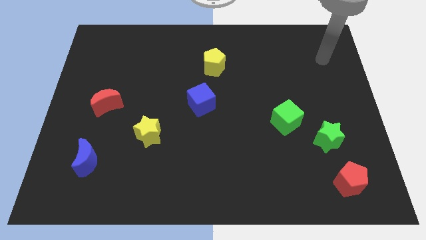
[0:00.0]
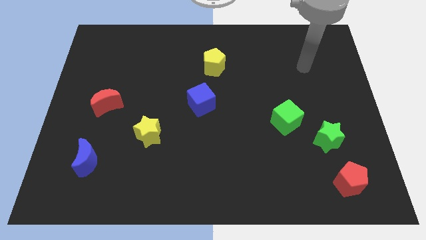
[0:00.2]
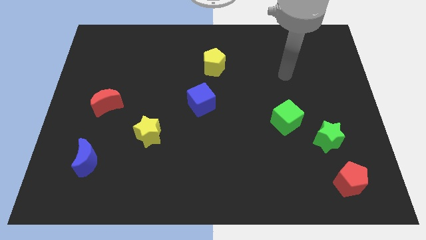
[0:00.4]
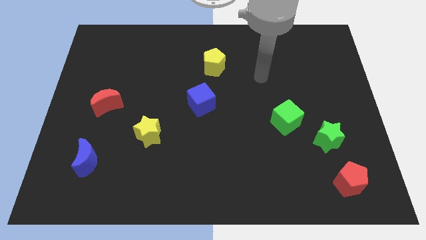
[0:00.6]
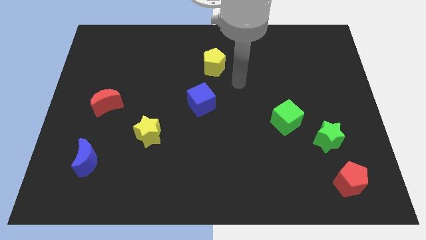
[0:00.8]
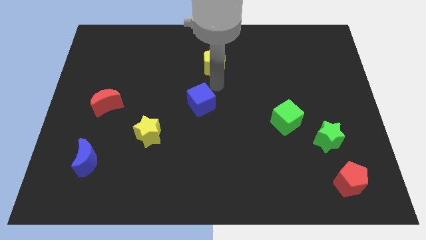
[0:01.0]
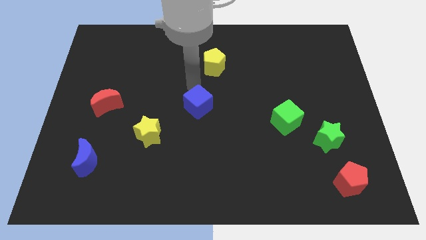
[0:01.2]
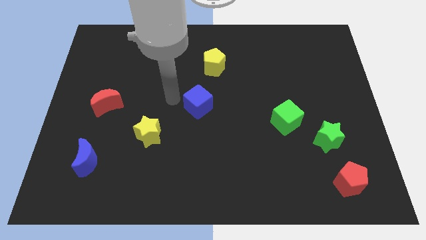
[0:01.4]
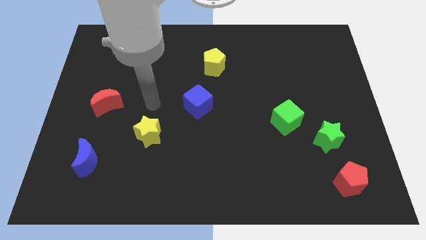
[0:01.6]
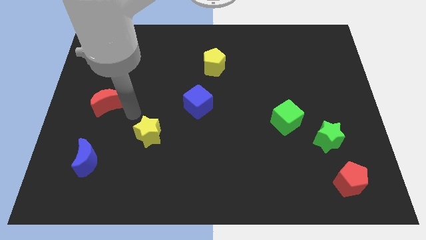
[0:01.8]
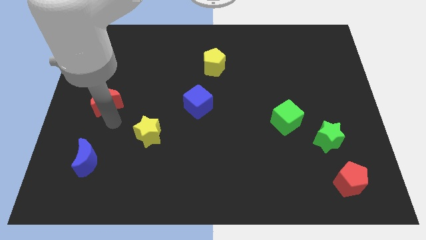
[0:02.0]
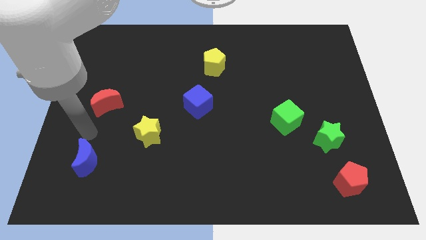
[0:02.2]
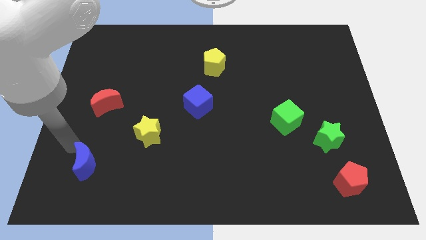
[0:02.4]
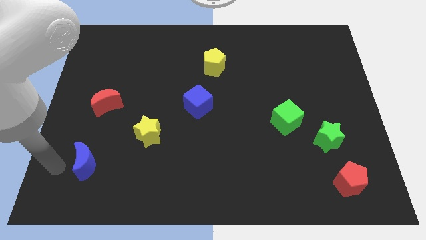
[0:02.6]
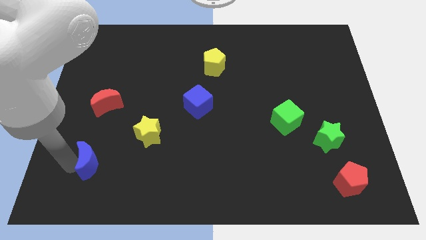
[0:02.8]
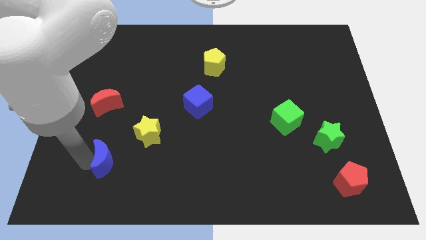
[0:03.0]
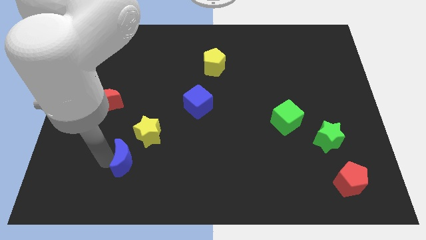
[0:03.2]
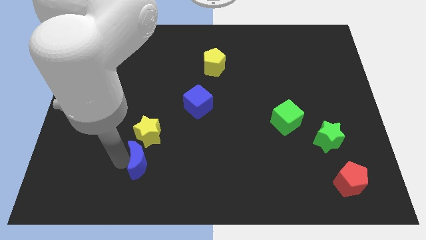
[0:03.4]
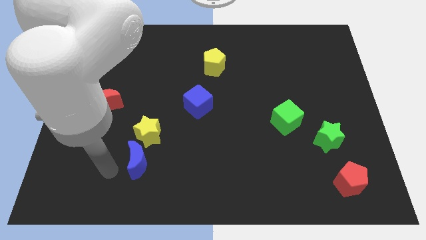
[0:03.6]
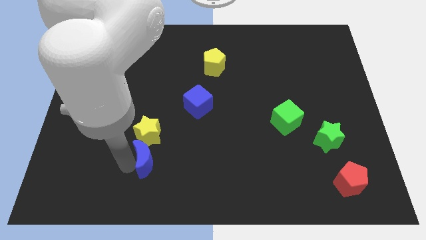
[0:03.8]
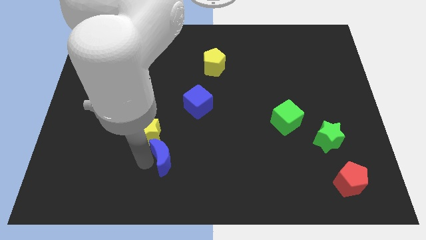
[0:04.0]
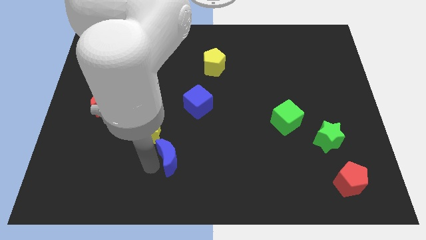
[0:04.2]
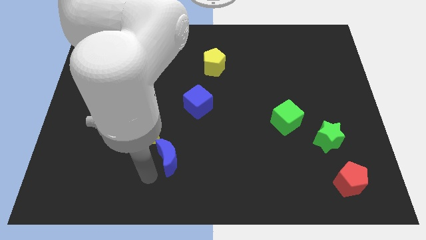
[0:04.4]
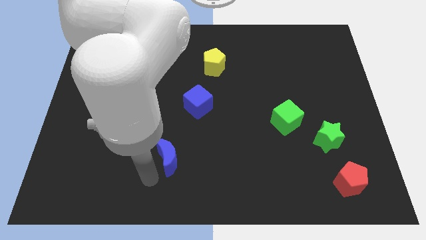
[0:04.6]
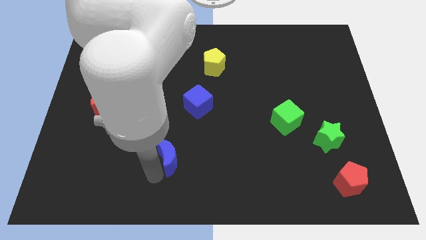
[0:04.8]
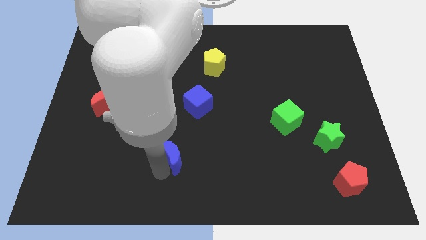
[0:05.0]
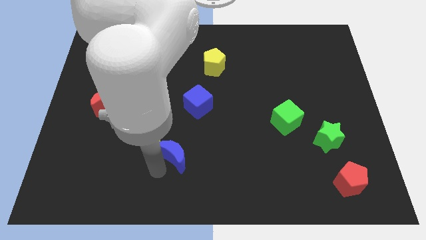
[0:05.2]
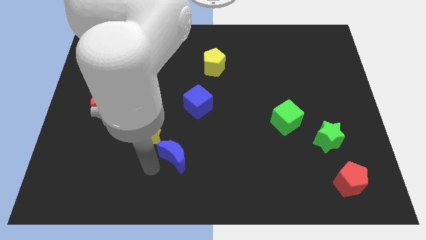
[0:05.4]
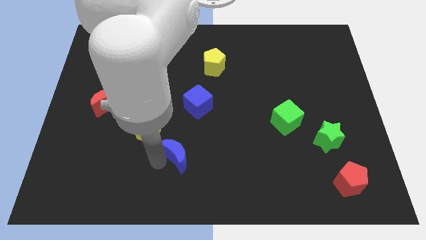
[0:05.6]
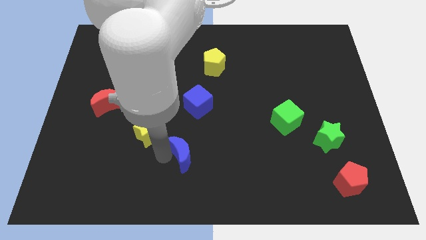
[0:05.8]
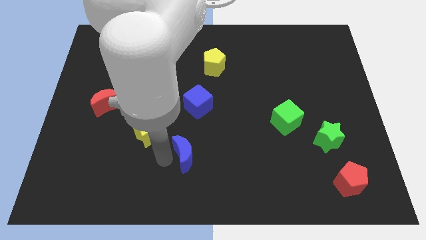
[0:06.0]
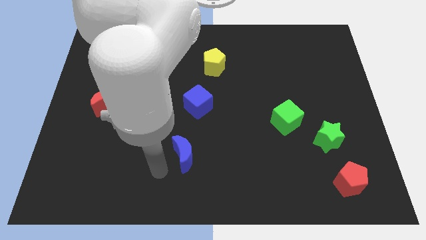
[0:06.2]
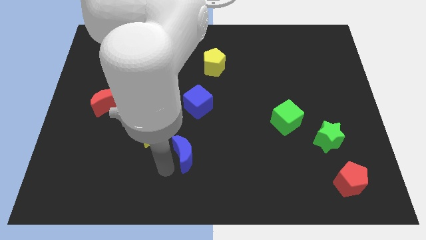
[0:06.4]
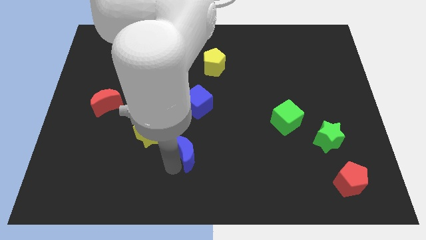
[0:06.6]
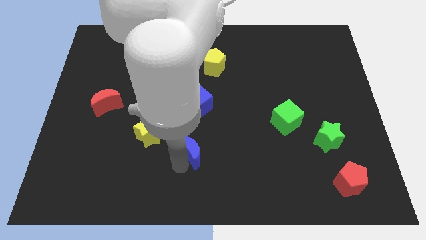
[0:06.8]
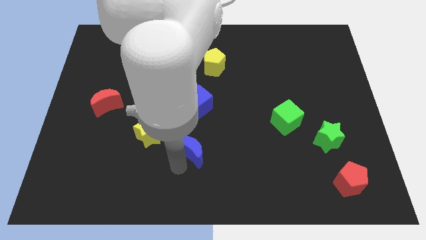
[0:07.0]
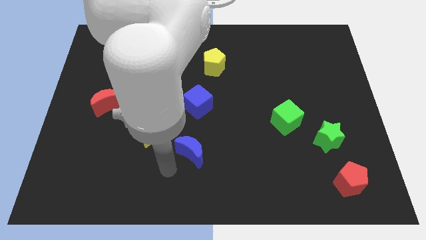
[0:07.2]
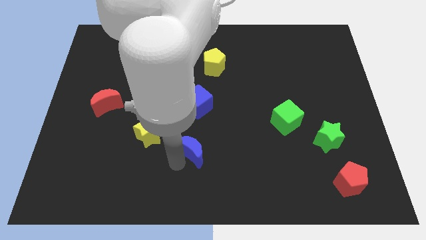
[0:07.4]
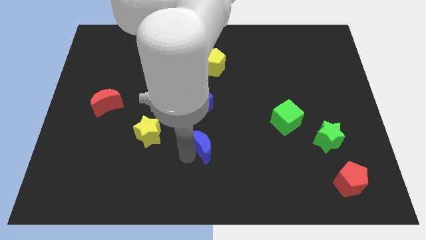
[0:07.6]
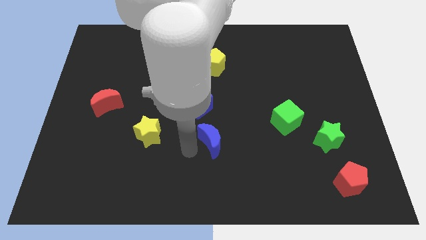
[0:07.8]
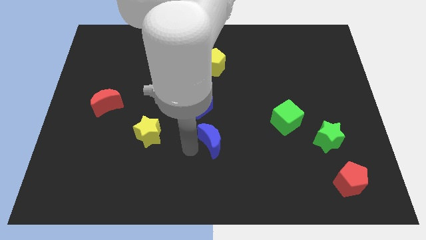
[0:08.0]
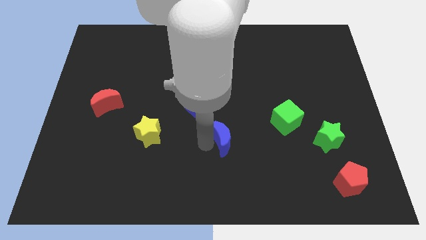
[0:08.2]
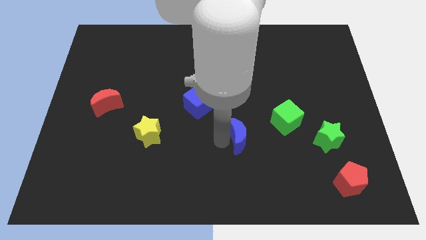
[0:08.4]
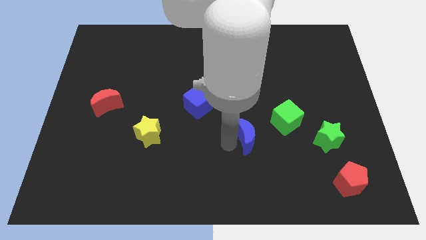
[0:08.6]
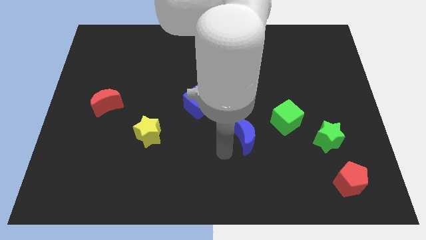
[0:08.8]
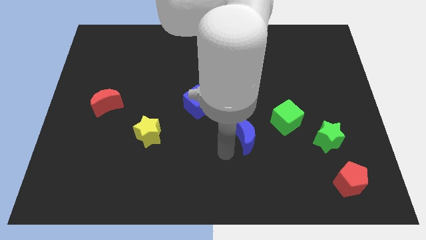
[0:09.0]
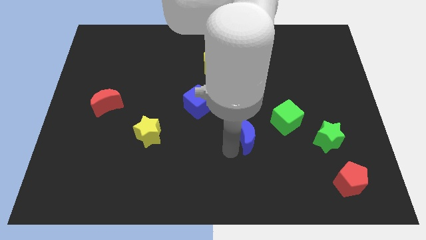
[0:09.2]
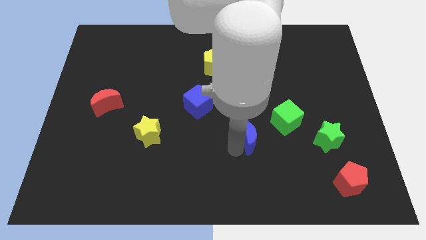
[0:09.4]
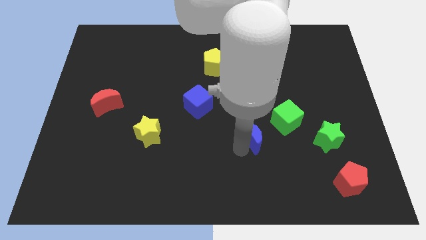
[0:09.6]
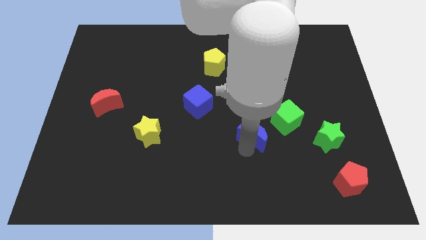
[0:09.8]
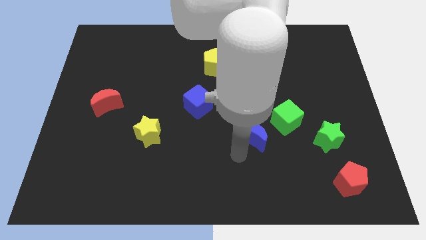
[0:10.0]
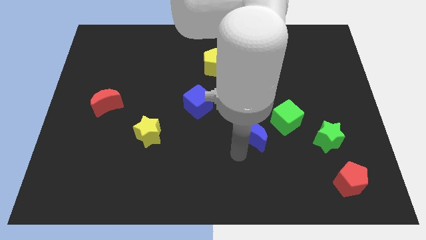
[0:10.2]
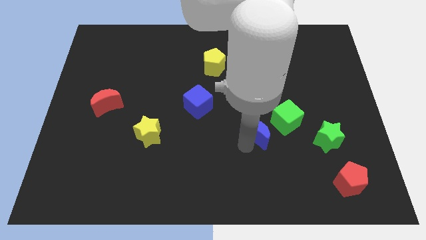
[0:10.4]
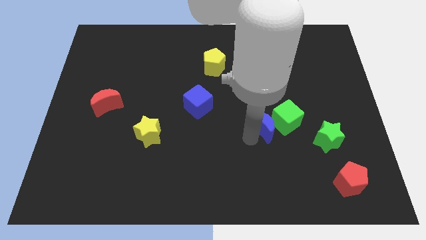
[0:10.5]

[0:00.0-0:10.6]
slide the blue moon towards the green cube

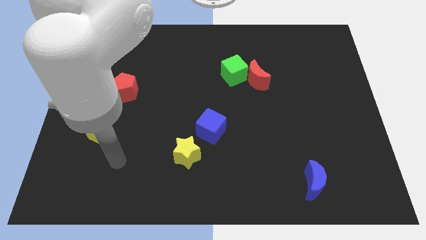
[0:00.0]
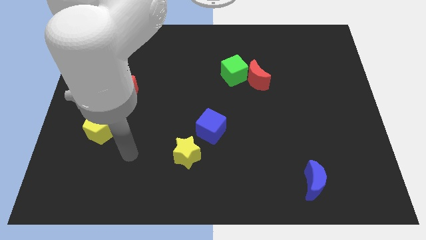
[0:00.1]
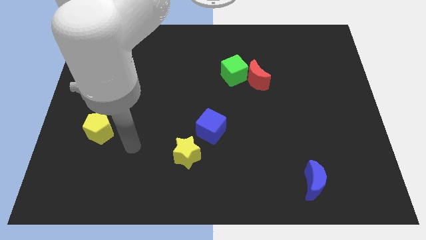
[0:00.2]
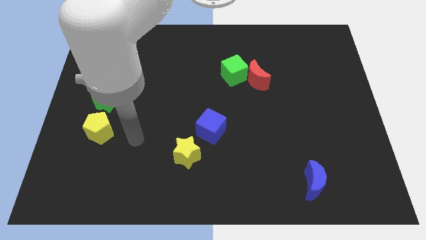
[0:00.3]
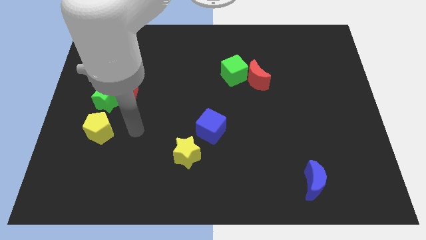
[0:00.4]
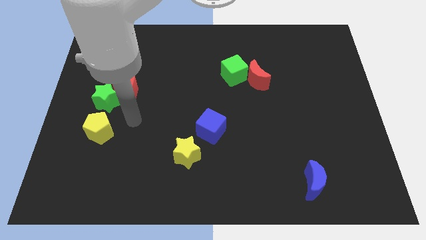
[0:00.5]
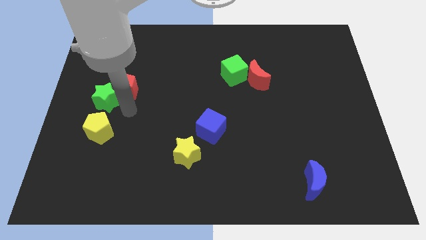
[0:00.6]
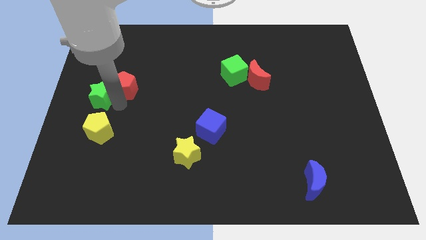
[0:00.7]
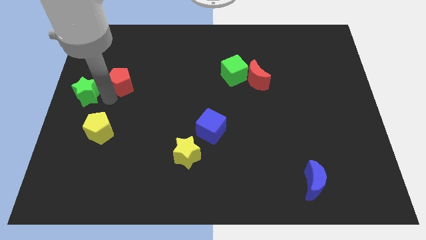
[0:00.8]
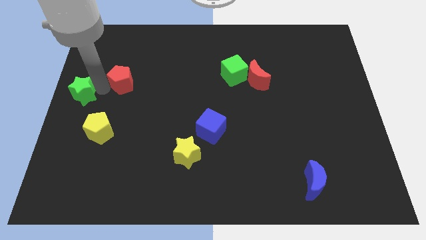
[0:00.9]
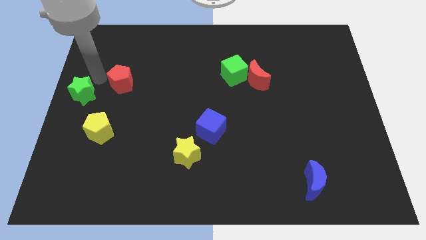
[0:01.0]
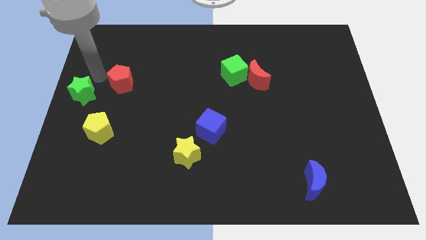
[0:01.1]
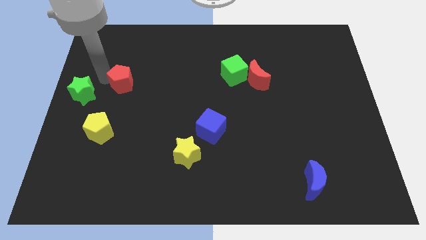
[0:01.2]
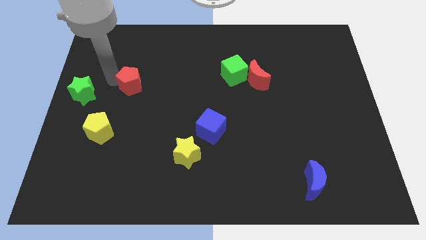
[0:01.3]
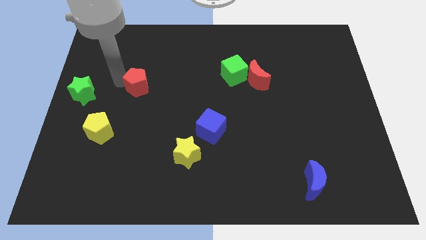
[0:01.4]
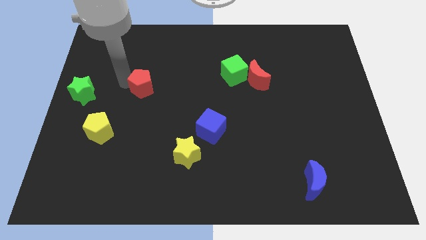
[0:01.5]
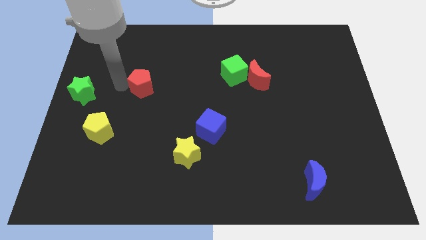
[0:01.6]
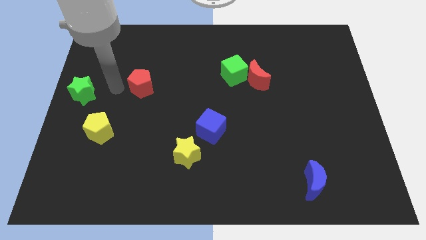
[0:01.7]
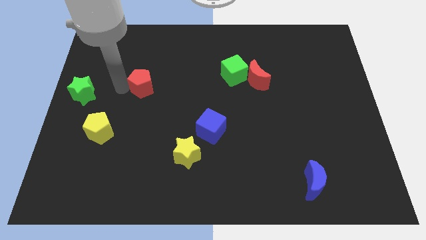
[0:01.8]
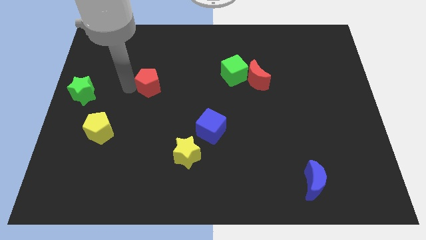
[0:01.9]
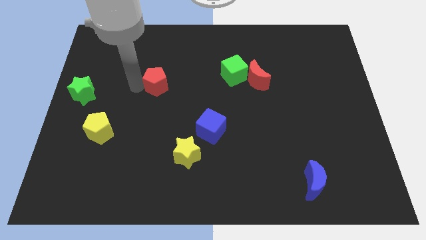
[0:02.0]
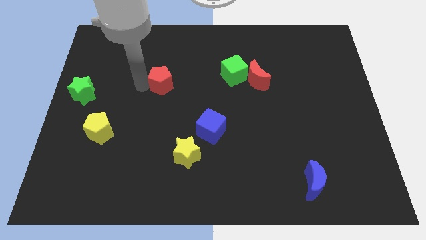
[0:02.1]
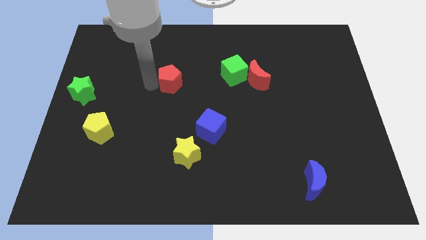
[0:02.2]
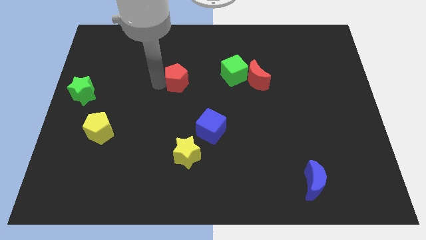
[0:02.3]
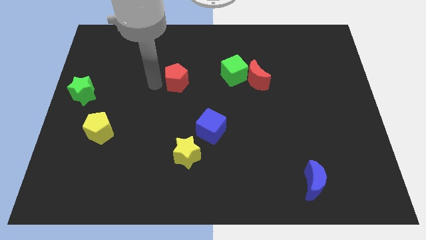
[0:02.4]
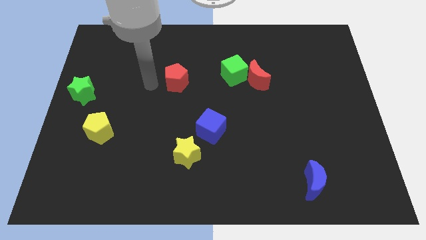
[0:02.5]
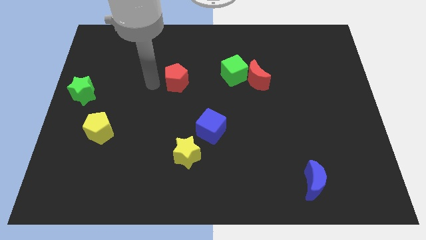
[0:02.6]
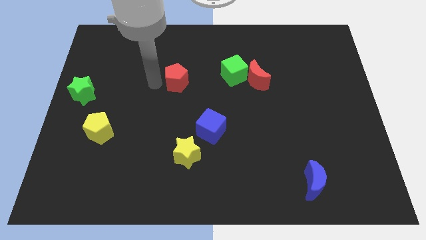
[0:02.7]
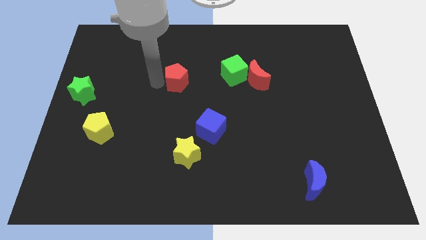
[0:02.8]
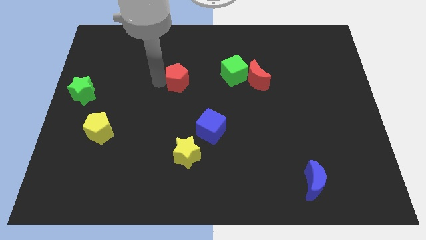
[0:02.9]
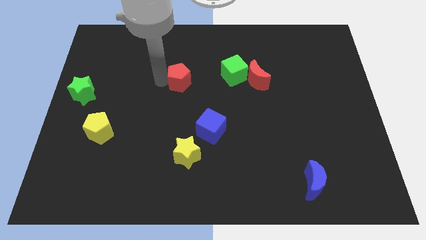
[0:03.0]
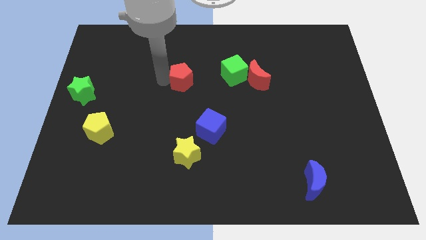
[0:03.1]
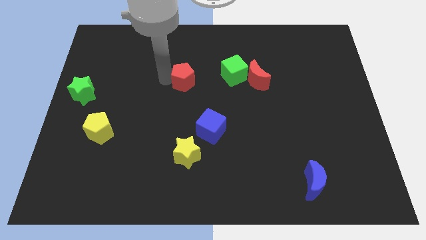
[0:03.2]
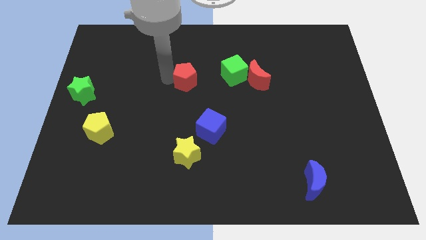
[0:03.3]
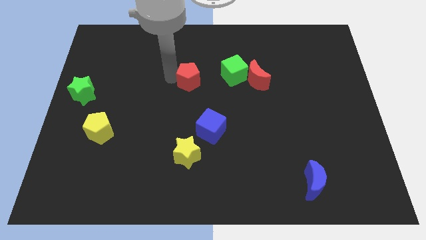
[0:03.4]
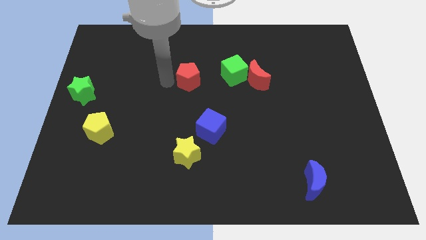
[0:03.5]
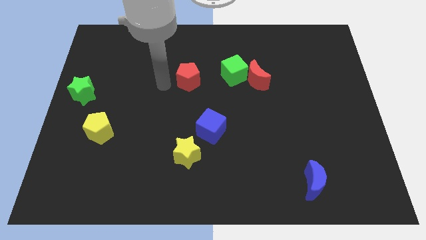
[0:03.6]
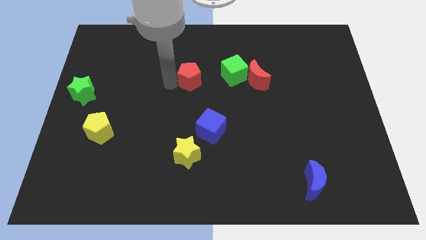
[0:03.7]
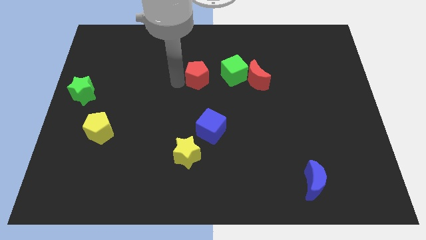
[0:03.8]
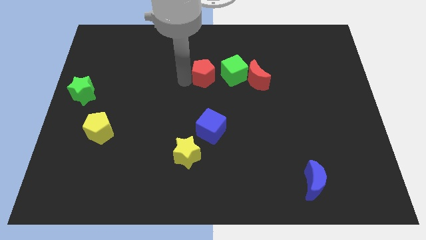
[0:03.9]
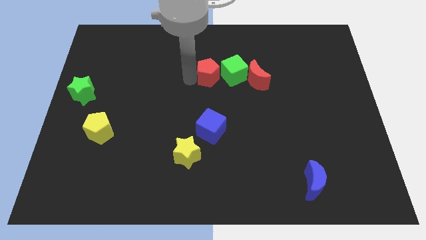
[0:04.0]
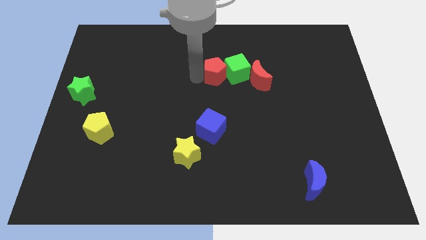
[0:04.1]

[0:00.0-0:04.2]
move the red pentagon towards the green cube
